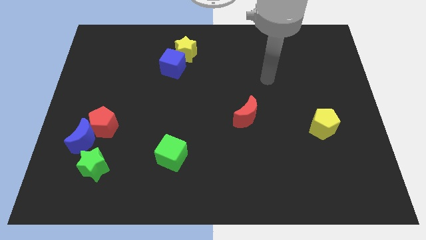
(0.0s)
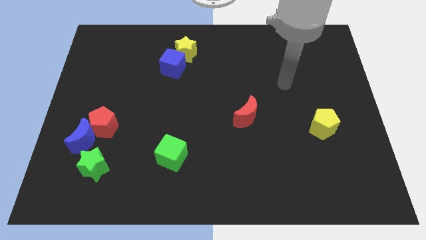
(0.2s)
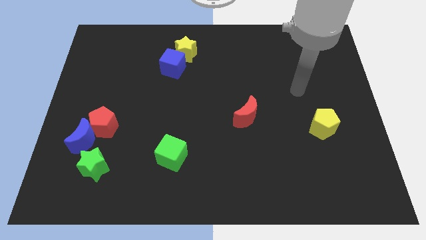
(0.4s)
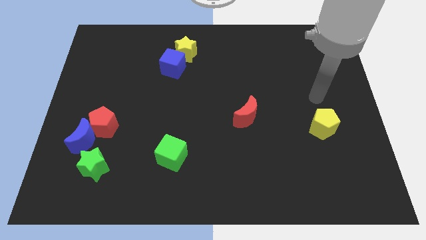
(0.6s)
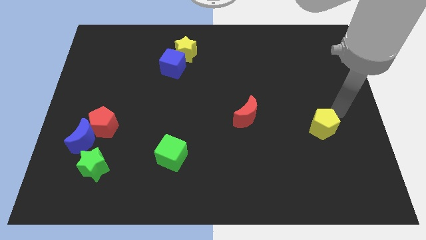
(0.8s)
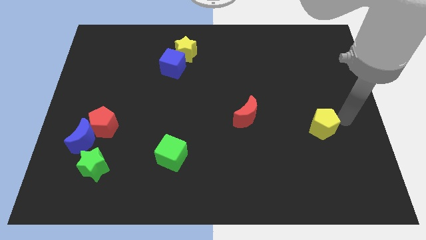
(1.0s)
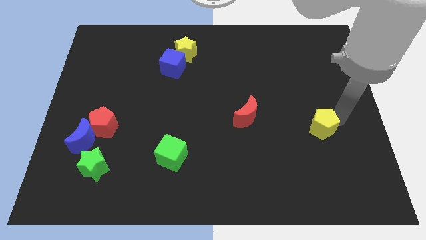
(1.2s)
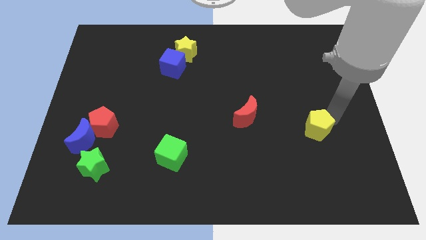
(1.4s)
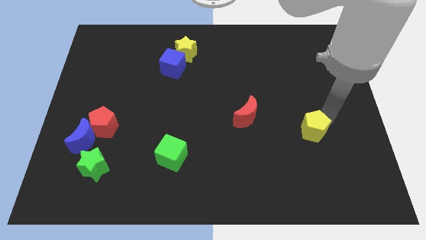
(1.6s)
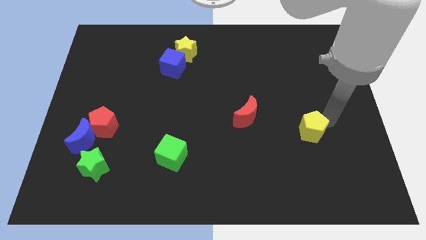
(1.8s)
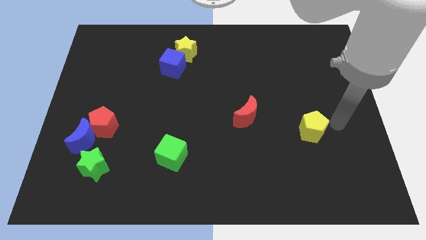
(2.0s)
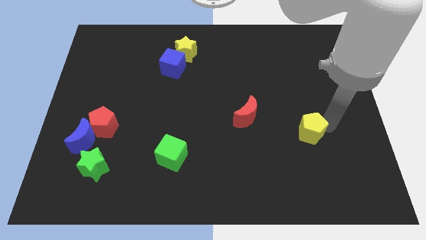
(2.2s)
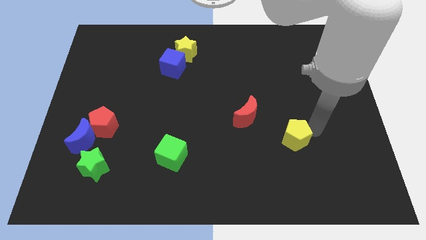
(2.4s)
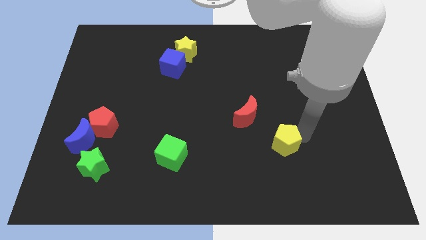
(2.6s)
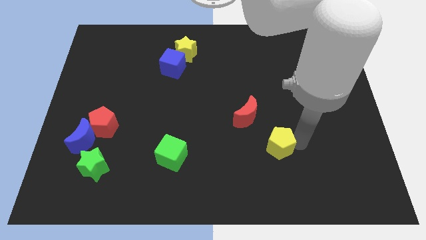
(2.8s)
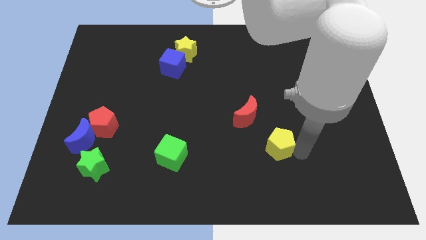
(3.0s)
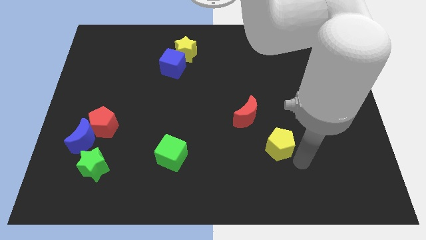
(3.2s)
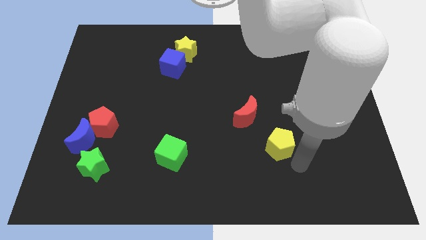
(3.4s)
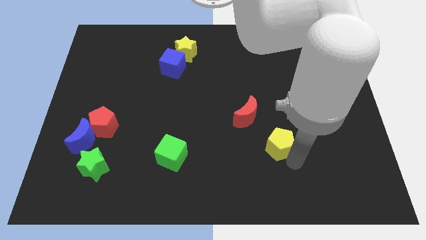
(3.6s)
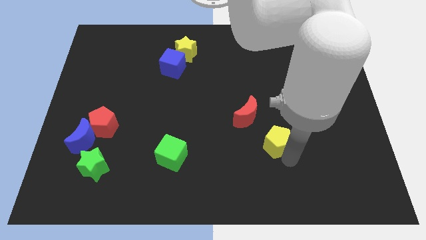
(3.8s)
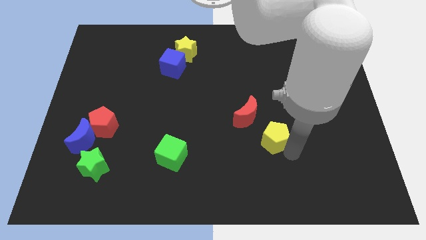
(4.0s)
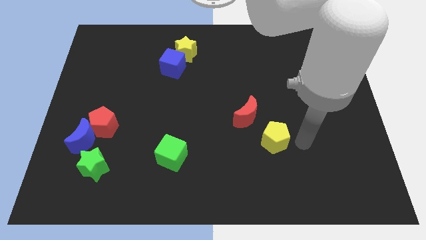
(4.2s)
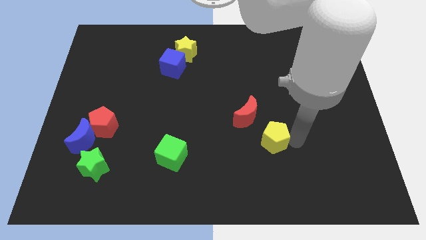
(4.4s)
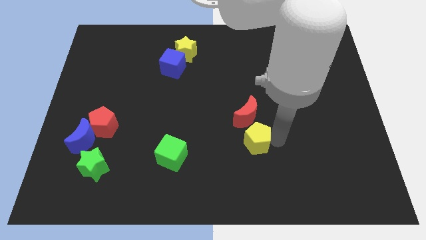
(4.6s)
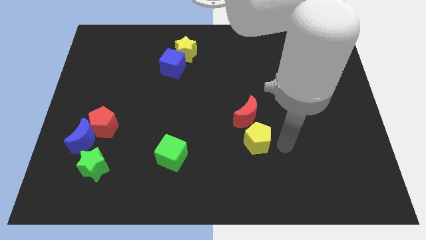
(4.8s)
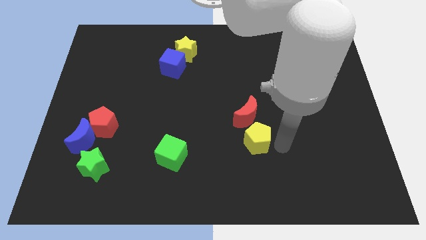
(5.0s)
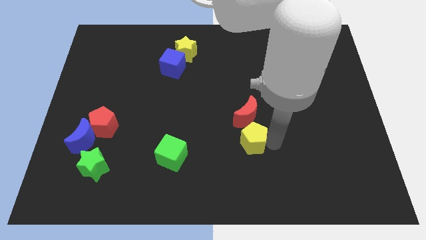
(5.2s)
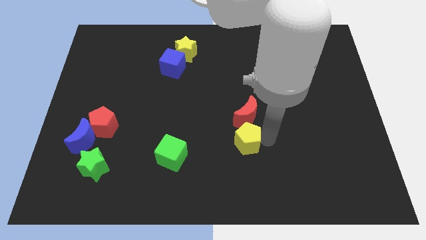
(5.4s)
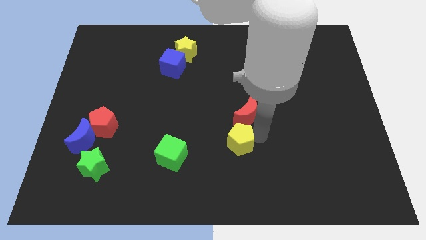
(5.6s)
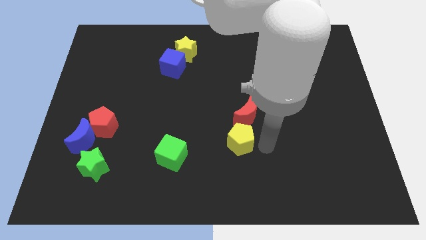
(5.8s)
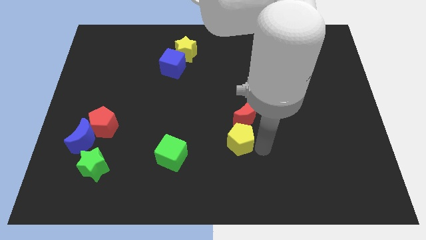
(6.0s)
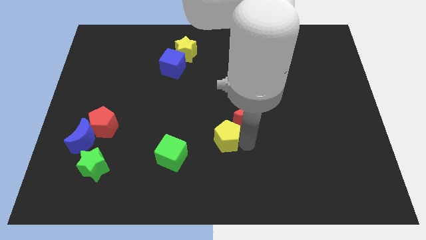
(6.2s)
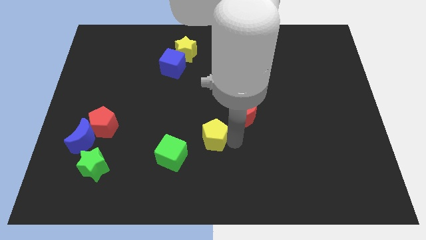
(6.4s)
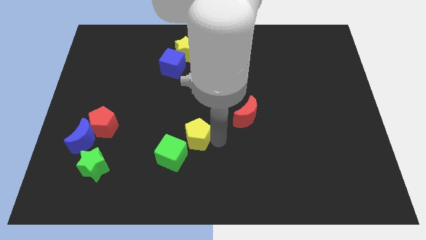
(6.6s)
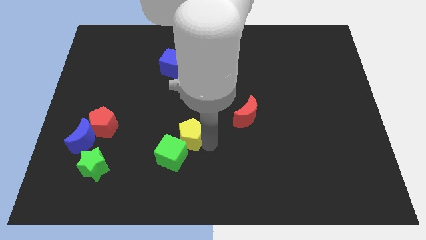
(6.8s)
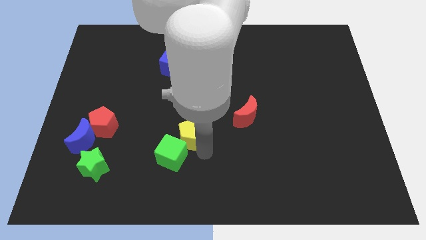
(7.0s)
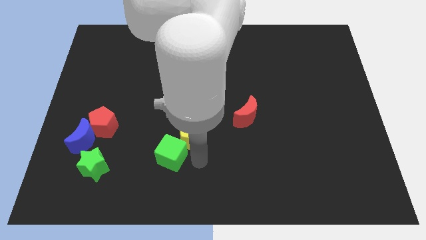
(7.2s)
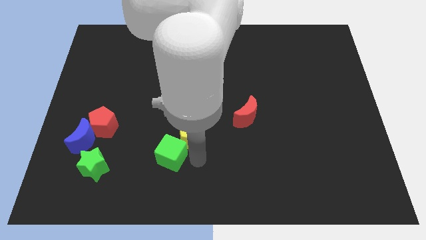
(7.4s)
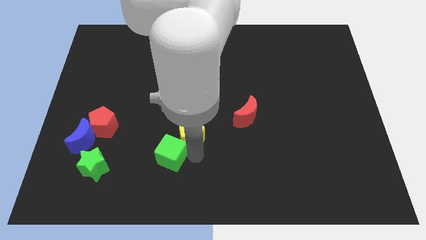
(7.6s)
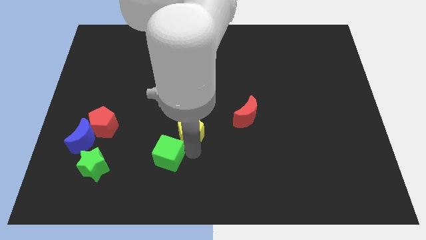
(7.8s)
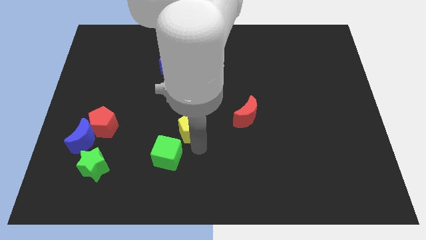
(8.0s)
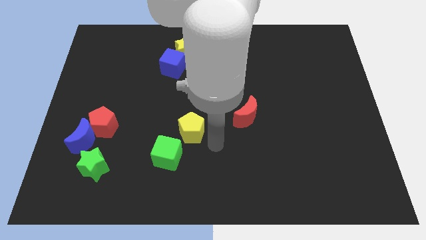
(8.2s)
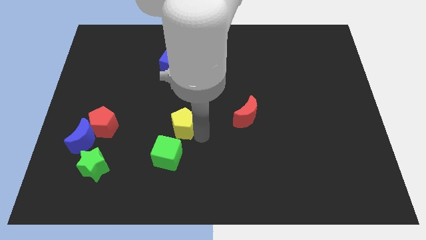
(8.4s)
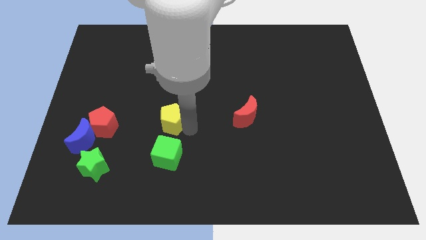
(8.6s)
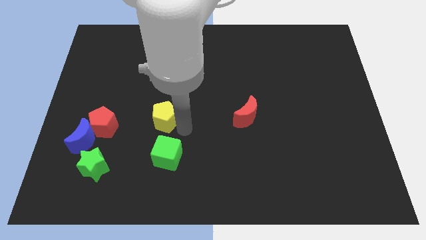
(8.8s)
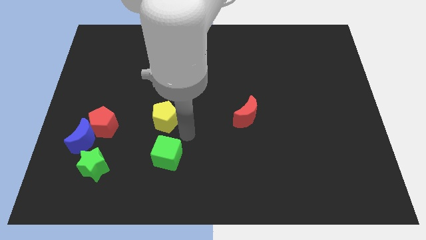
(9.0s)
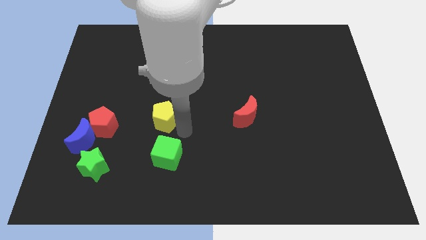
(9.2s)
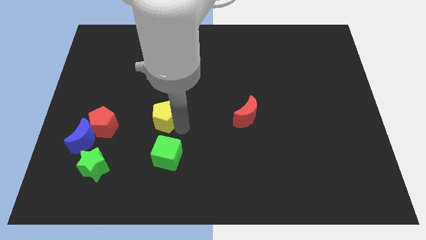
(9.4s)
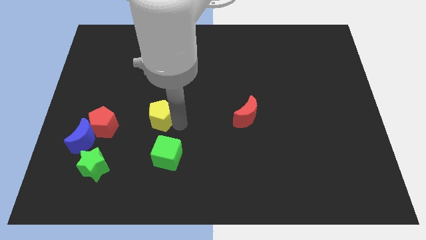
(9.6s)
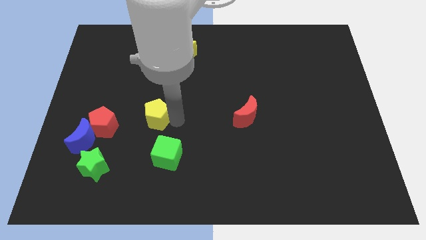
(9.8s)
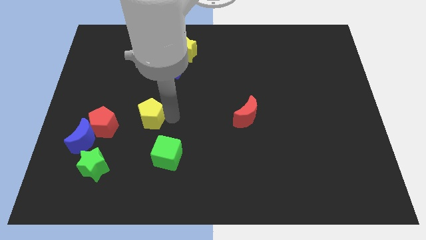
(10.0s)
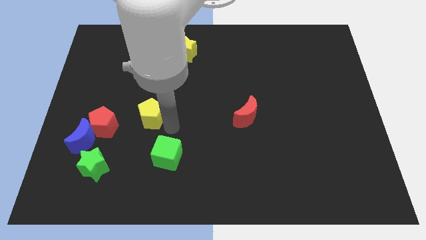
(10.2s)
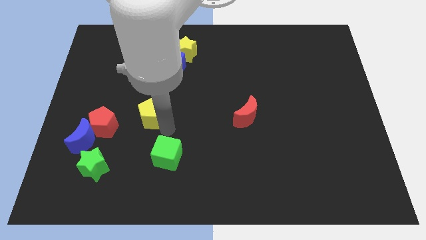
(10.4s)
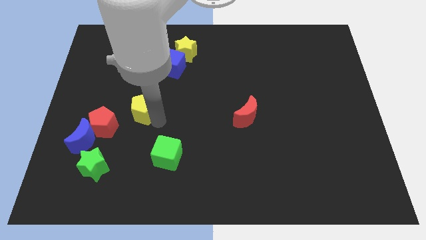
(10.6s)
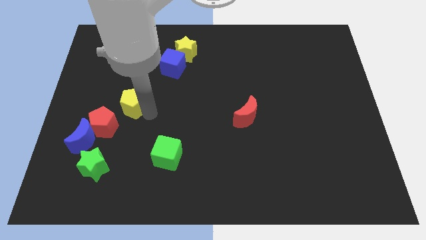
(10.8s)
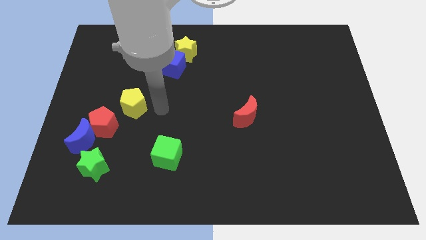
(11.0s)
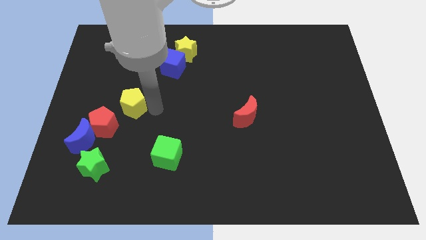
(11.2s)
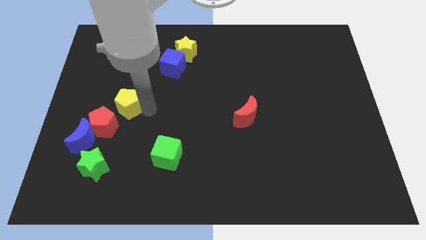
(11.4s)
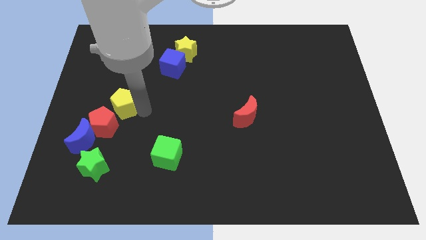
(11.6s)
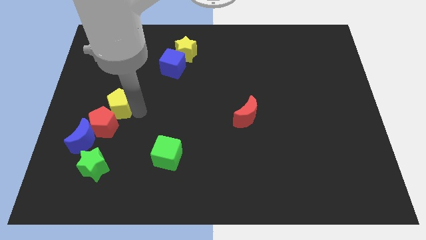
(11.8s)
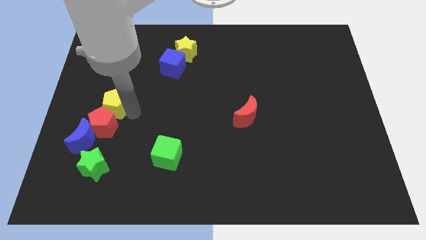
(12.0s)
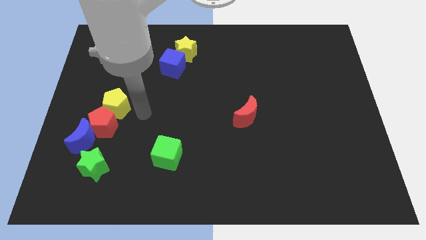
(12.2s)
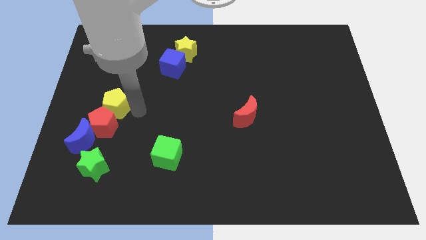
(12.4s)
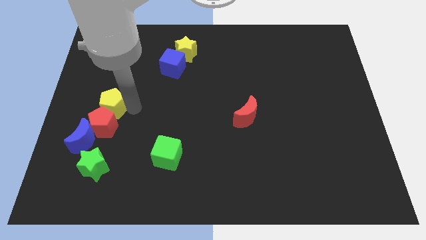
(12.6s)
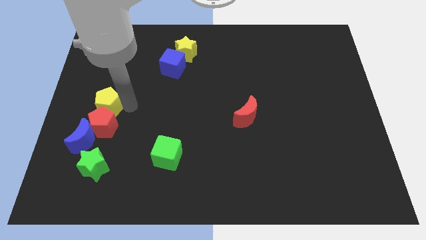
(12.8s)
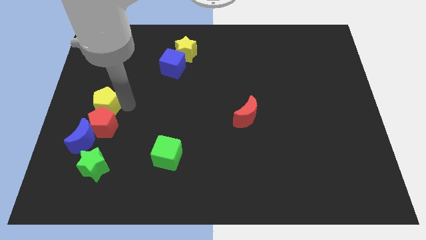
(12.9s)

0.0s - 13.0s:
slide the yellow pentagon to the left side
